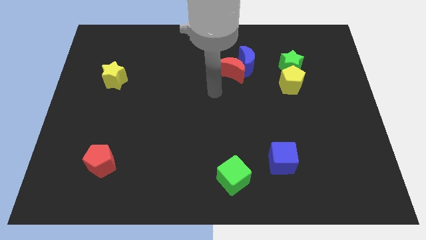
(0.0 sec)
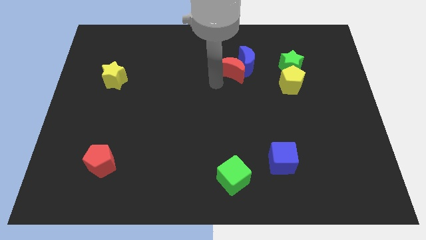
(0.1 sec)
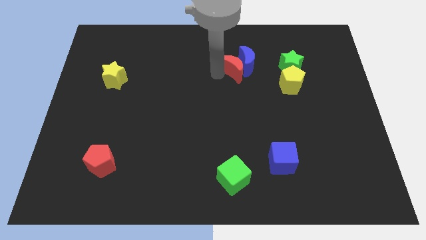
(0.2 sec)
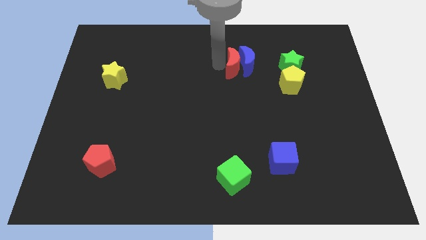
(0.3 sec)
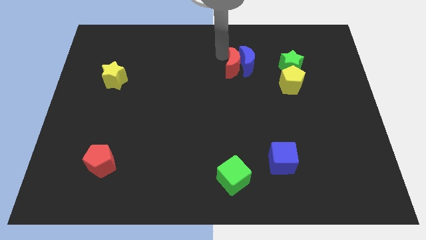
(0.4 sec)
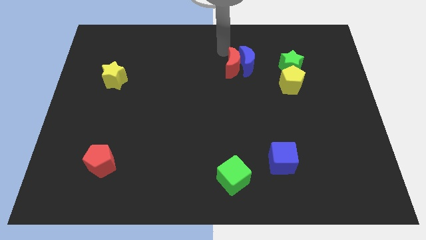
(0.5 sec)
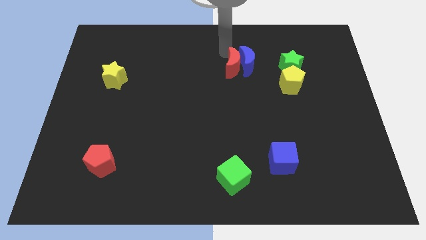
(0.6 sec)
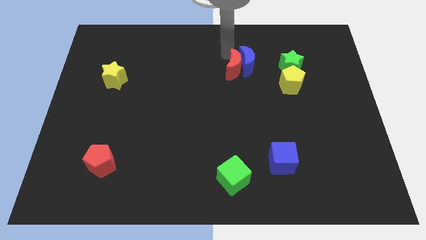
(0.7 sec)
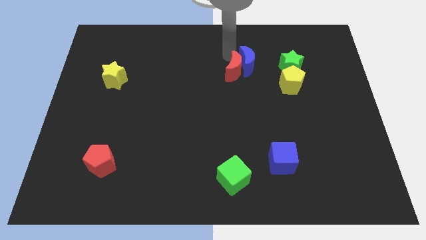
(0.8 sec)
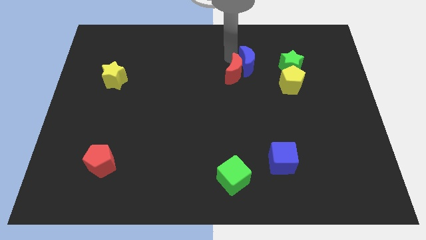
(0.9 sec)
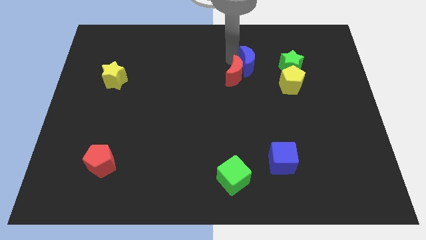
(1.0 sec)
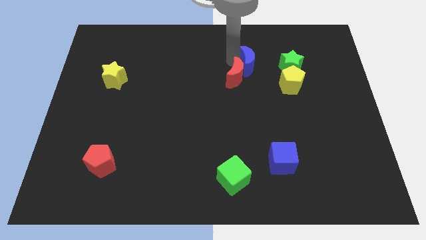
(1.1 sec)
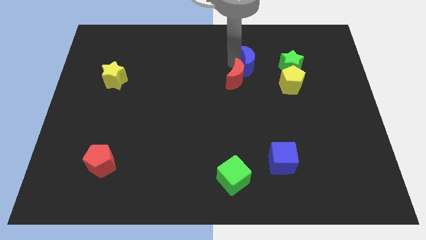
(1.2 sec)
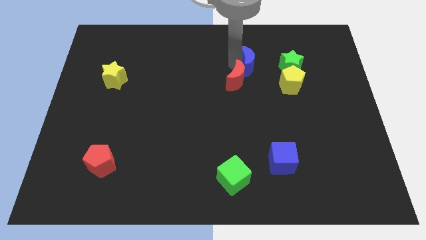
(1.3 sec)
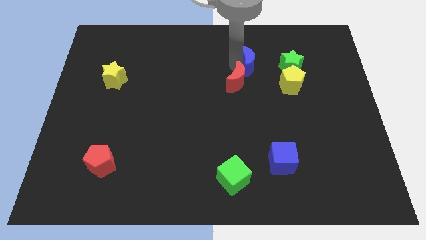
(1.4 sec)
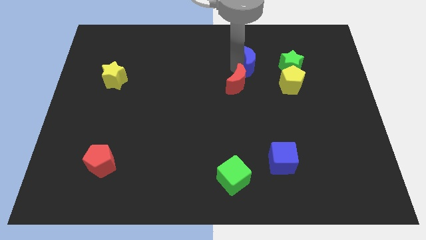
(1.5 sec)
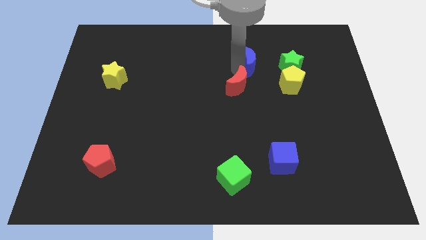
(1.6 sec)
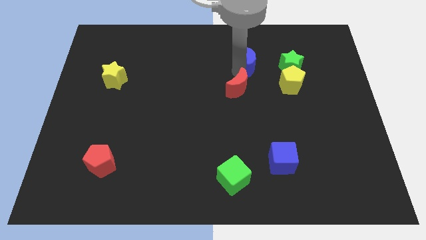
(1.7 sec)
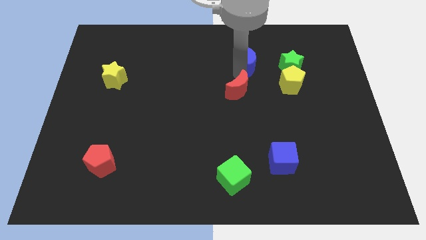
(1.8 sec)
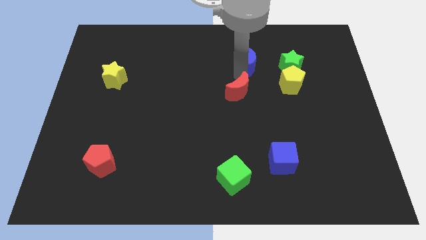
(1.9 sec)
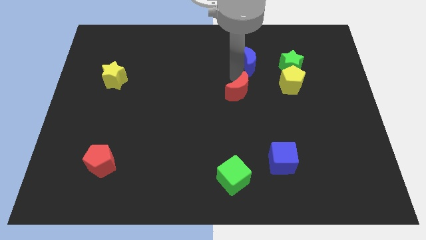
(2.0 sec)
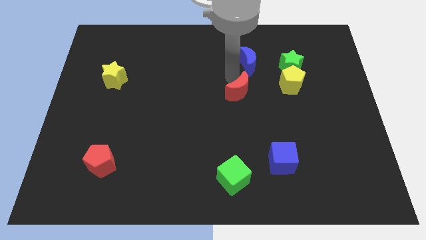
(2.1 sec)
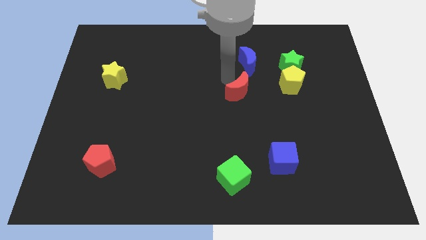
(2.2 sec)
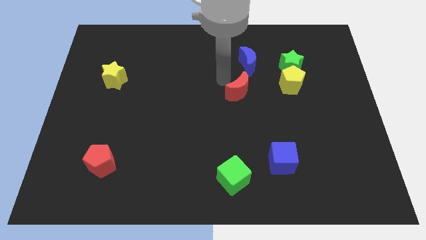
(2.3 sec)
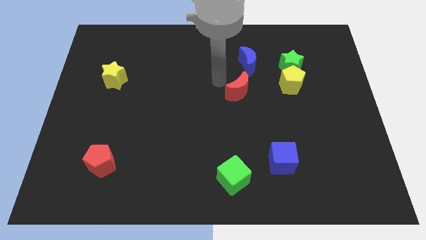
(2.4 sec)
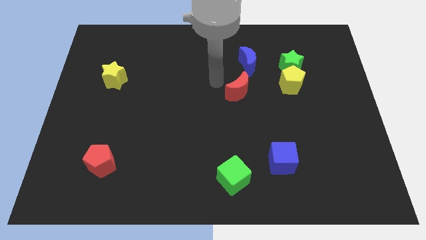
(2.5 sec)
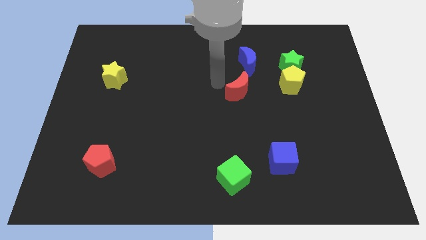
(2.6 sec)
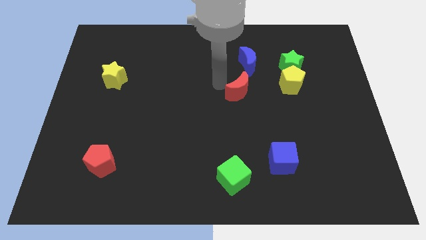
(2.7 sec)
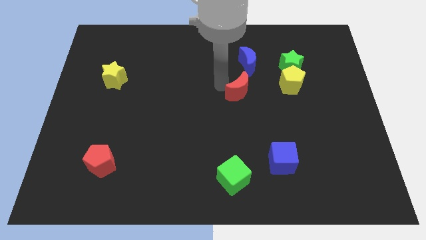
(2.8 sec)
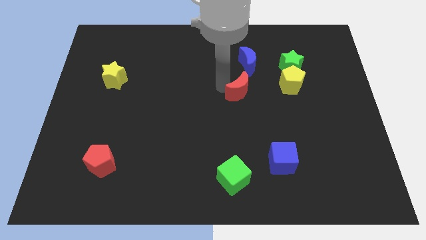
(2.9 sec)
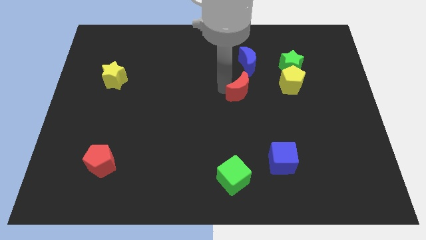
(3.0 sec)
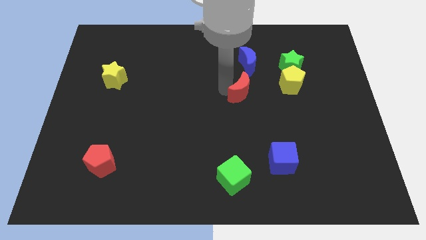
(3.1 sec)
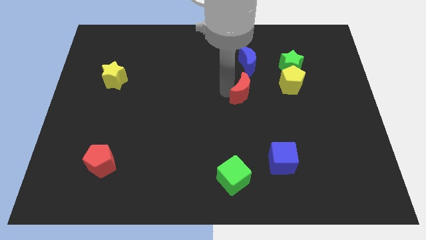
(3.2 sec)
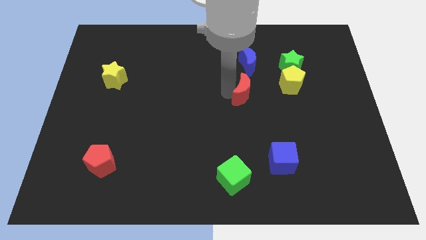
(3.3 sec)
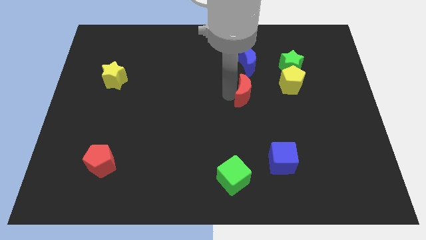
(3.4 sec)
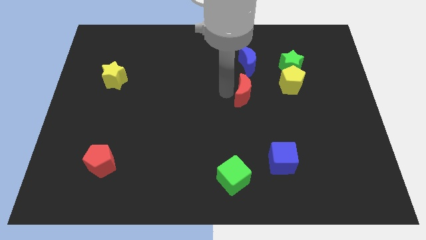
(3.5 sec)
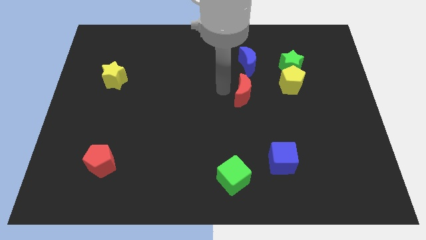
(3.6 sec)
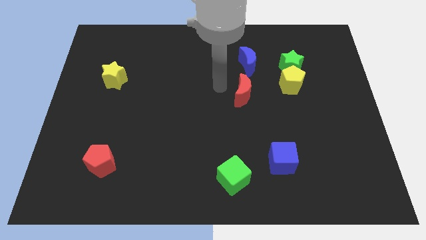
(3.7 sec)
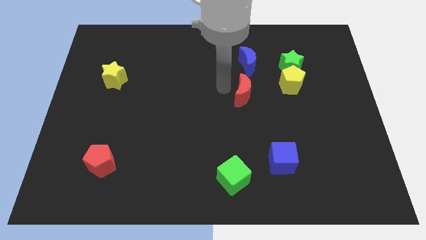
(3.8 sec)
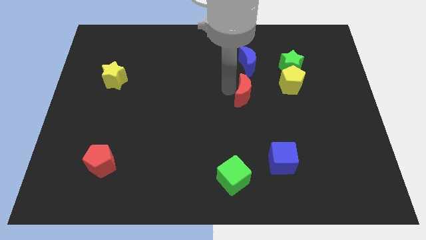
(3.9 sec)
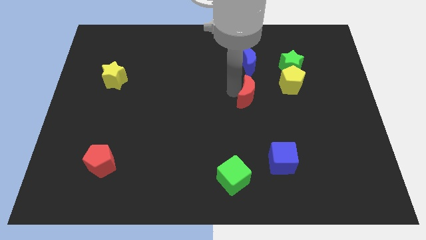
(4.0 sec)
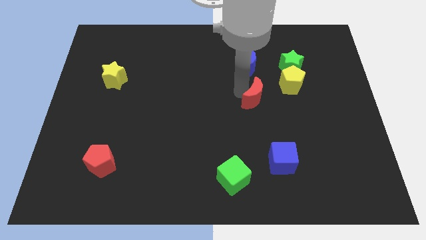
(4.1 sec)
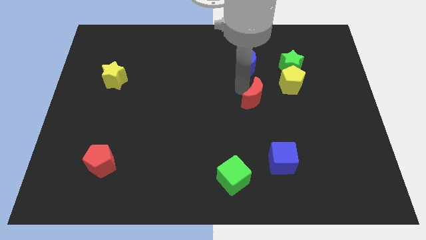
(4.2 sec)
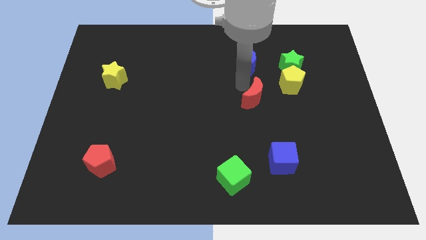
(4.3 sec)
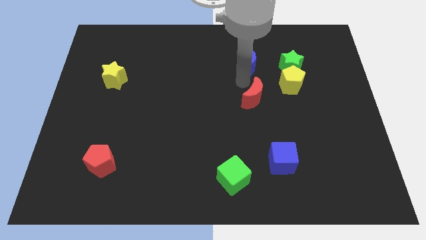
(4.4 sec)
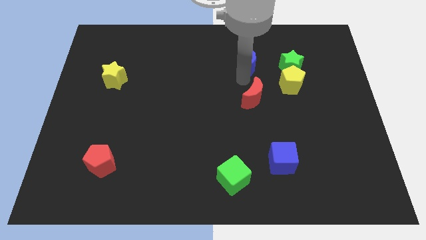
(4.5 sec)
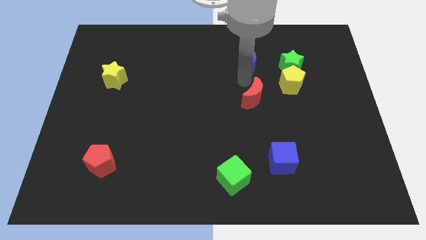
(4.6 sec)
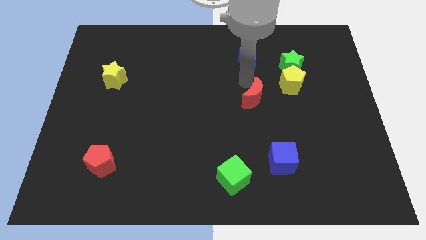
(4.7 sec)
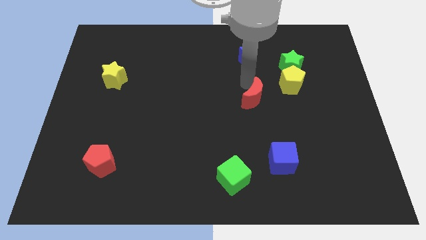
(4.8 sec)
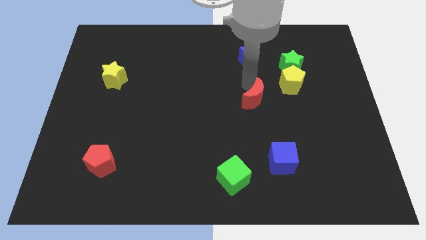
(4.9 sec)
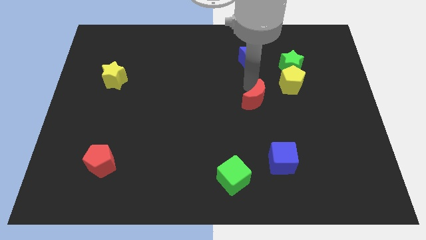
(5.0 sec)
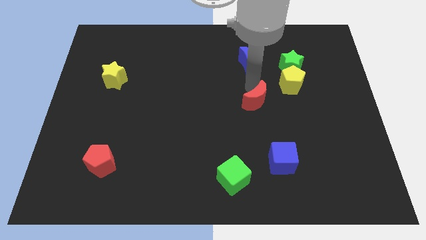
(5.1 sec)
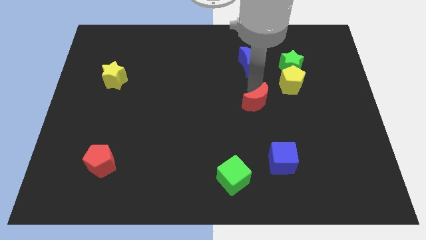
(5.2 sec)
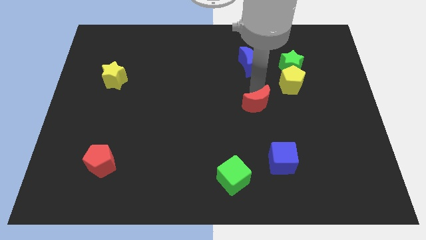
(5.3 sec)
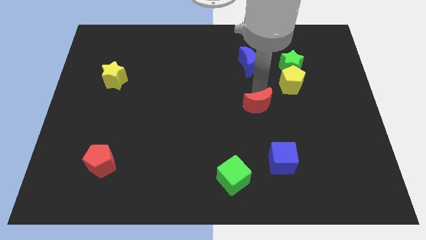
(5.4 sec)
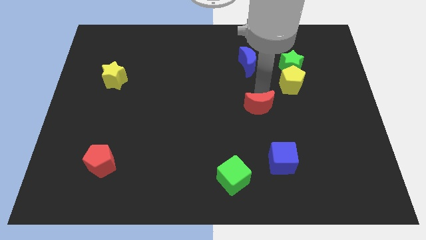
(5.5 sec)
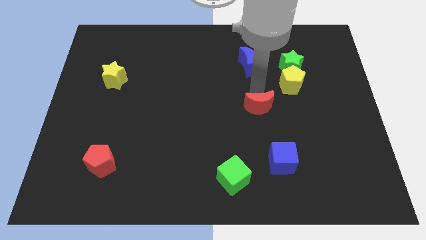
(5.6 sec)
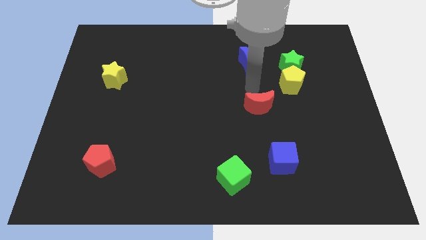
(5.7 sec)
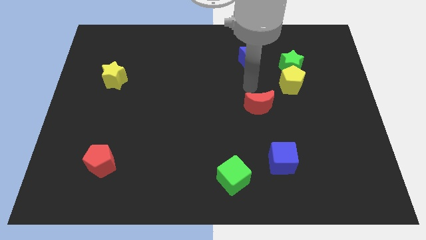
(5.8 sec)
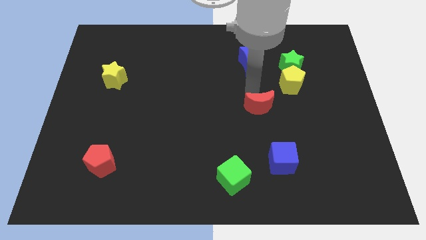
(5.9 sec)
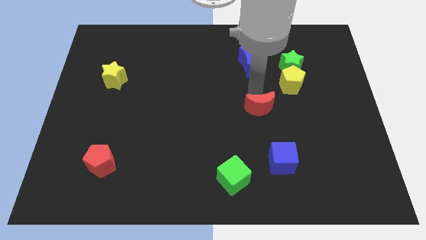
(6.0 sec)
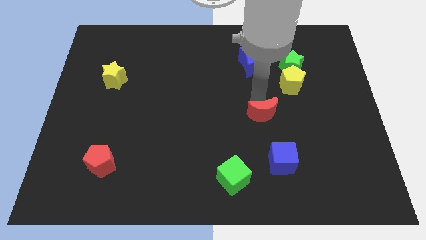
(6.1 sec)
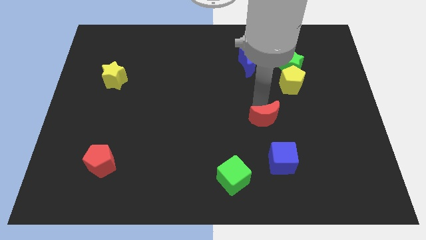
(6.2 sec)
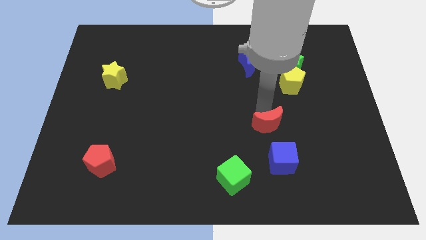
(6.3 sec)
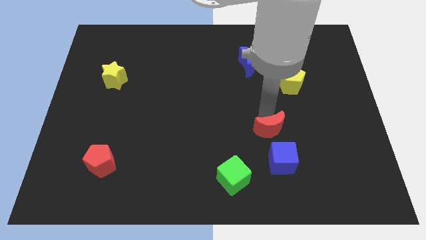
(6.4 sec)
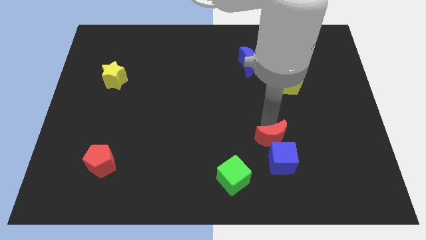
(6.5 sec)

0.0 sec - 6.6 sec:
push the red moon to the blue cube
